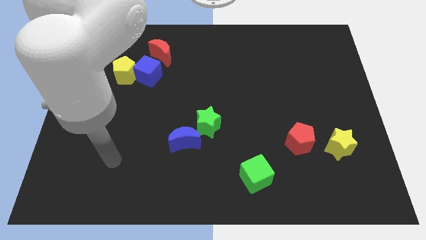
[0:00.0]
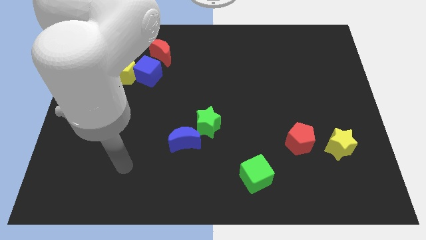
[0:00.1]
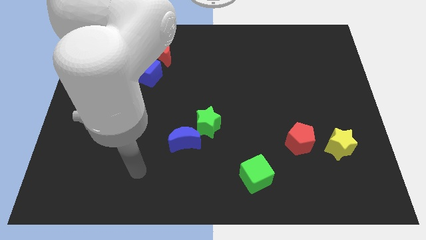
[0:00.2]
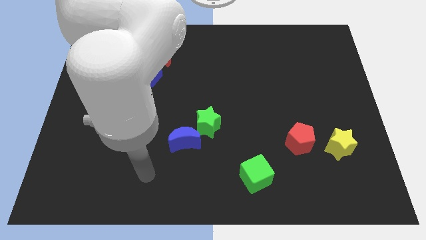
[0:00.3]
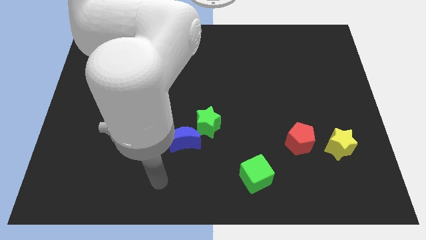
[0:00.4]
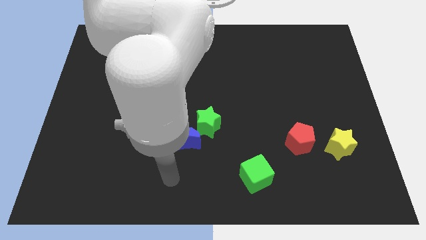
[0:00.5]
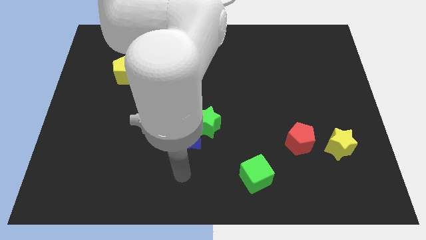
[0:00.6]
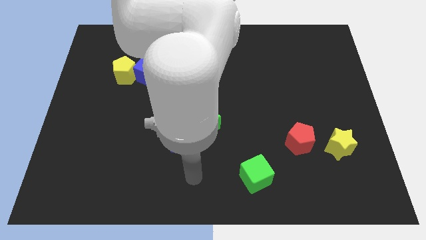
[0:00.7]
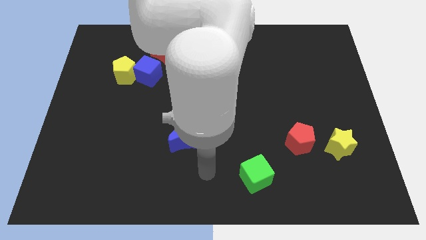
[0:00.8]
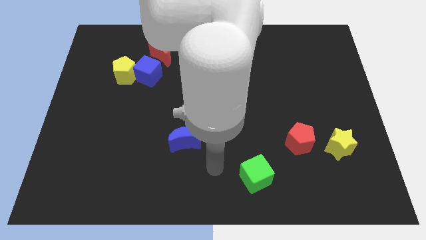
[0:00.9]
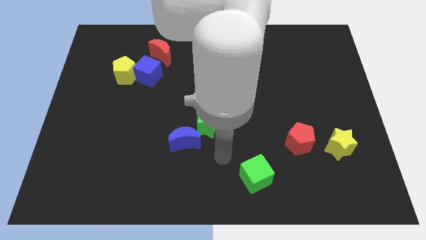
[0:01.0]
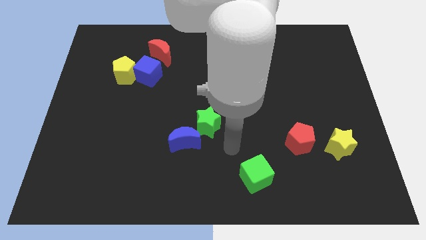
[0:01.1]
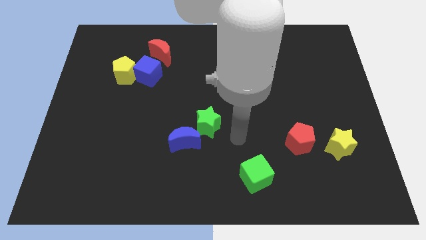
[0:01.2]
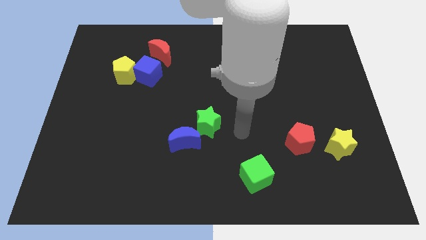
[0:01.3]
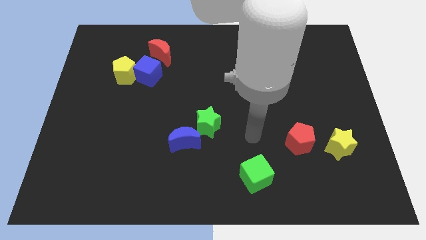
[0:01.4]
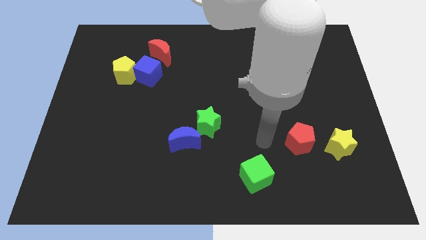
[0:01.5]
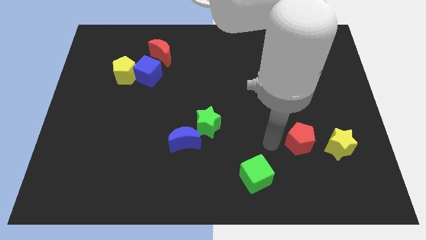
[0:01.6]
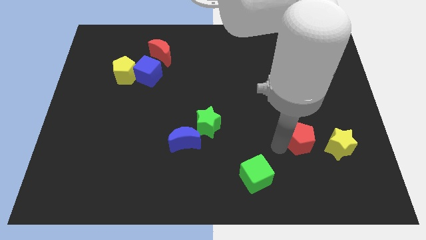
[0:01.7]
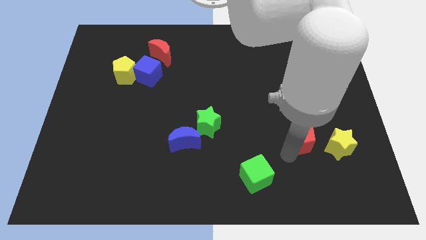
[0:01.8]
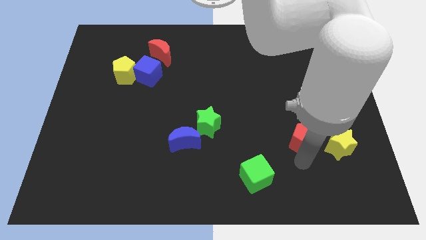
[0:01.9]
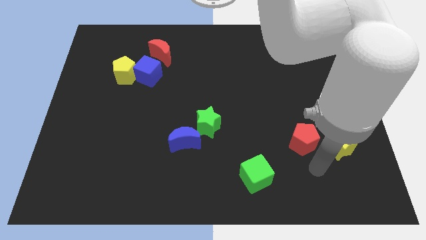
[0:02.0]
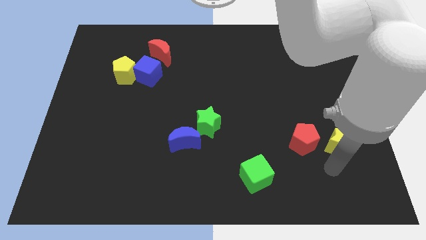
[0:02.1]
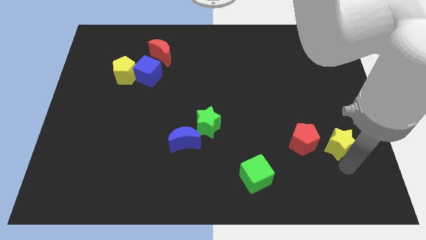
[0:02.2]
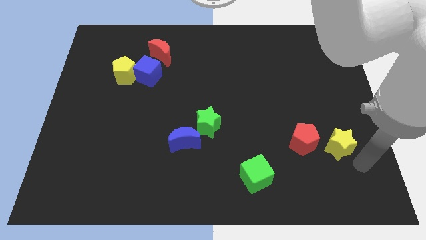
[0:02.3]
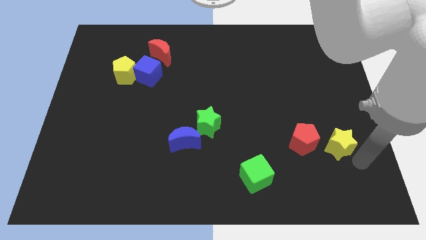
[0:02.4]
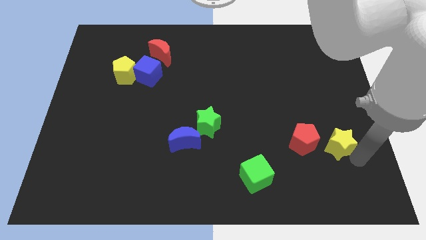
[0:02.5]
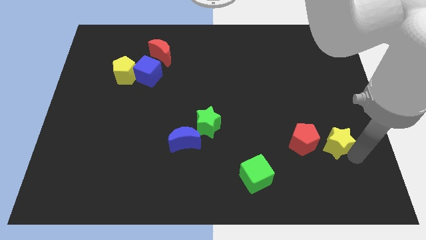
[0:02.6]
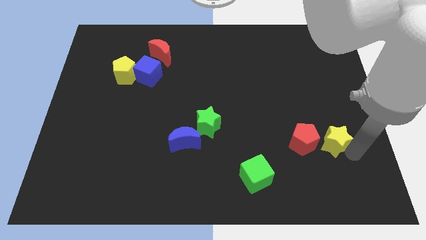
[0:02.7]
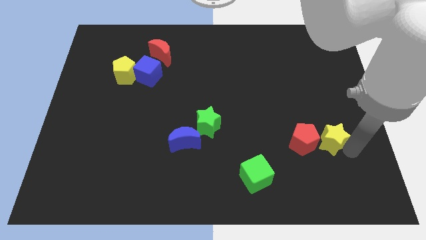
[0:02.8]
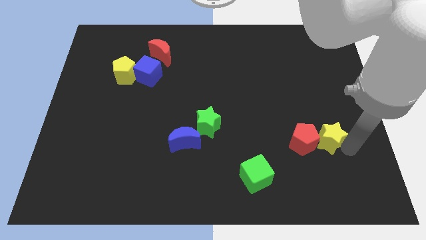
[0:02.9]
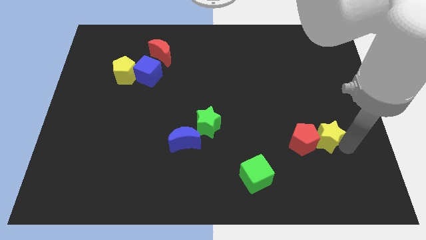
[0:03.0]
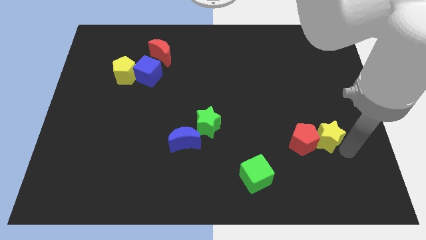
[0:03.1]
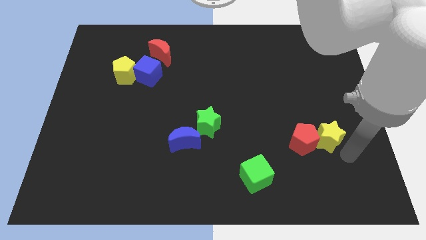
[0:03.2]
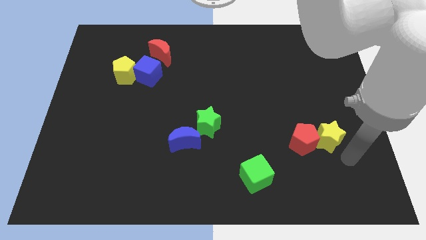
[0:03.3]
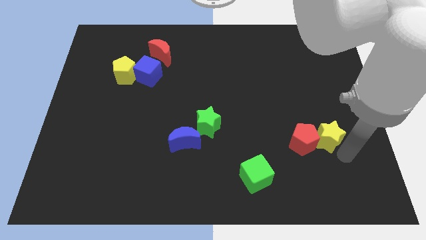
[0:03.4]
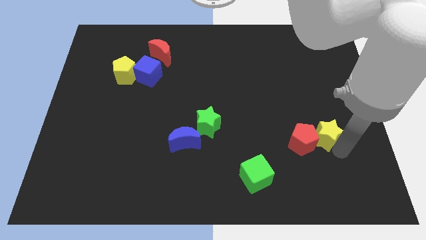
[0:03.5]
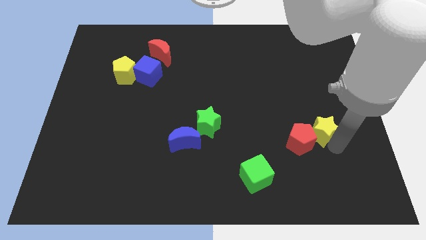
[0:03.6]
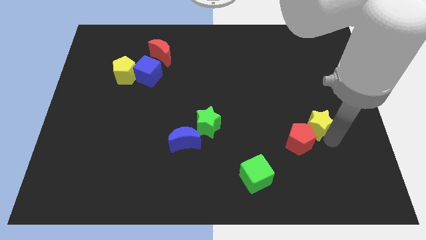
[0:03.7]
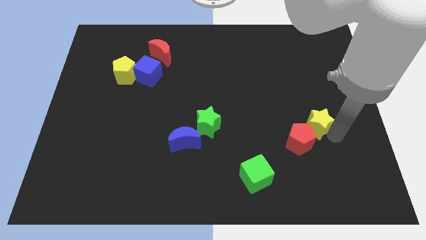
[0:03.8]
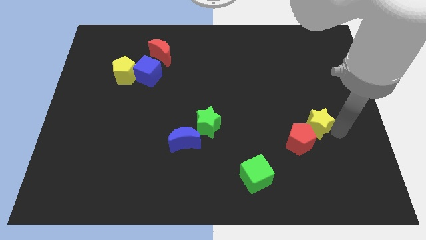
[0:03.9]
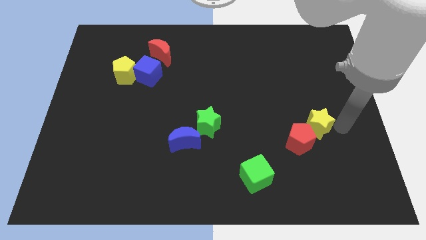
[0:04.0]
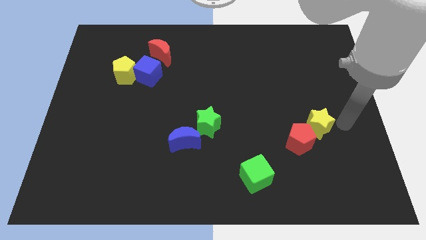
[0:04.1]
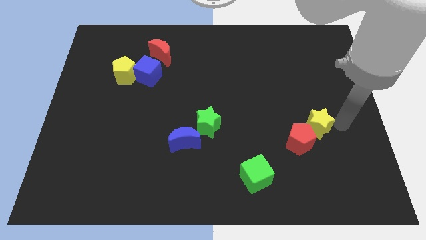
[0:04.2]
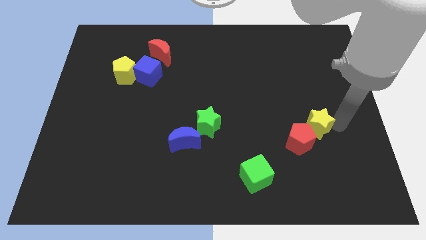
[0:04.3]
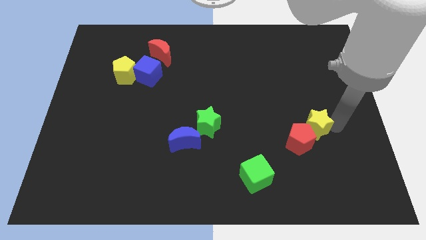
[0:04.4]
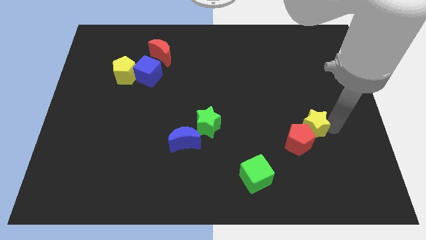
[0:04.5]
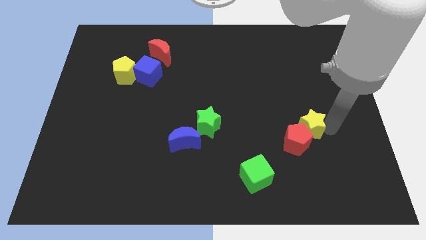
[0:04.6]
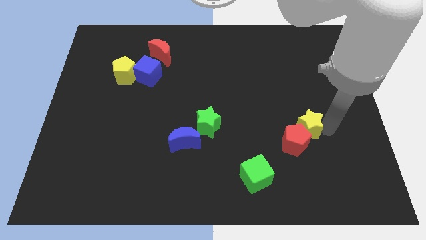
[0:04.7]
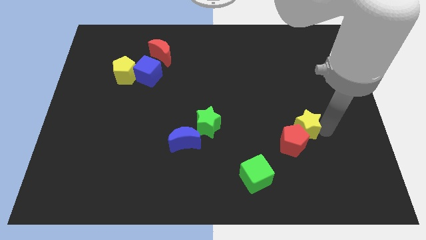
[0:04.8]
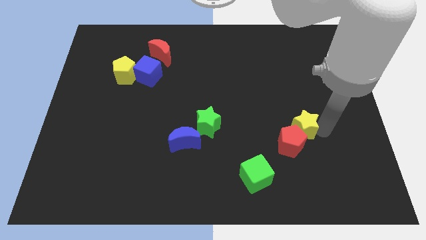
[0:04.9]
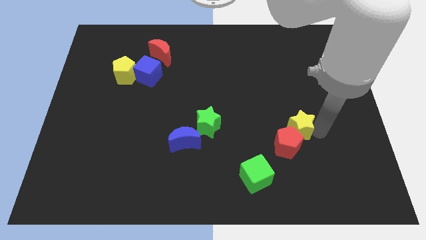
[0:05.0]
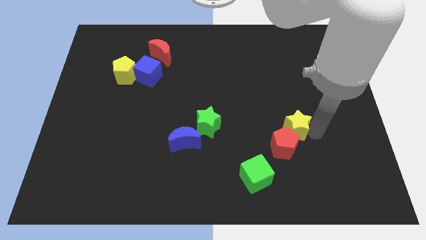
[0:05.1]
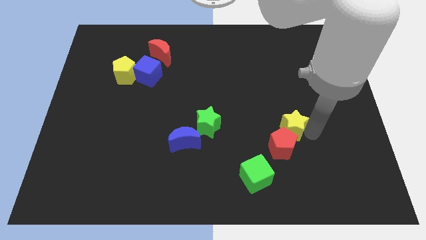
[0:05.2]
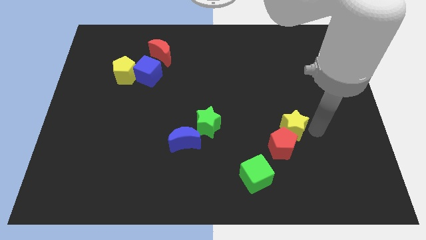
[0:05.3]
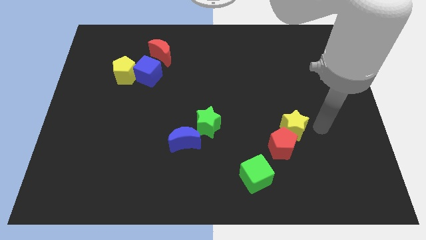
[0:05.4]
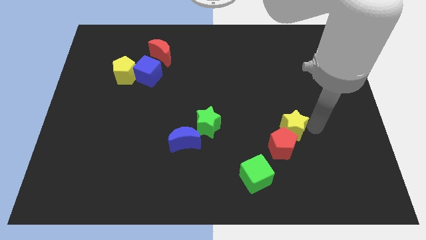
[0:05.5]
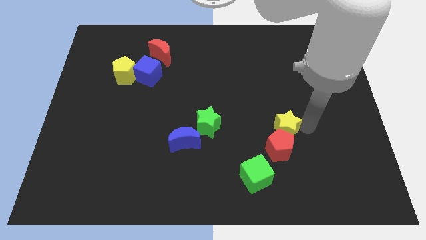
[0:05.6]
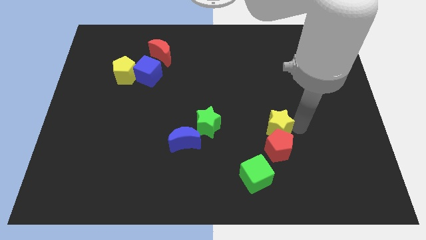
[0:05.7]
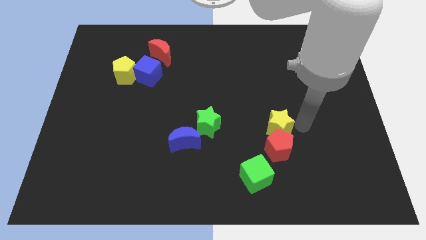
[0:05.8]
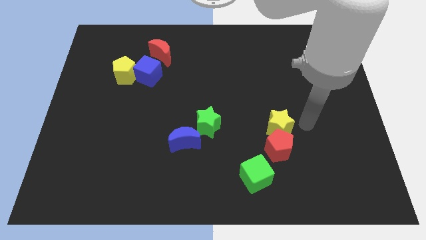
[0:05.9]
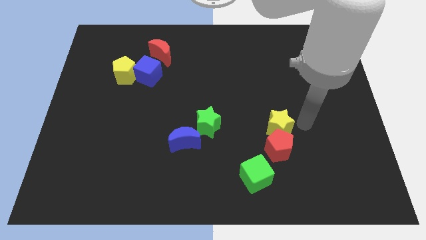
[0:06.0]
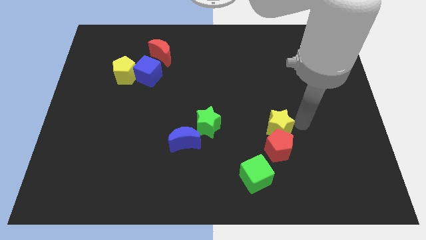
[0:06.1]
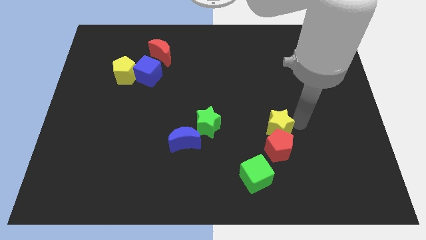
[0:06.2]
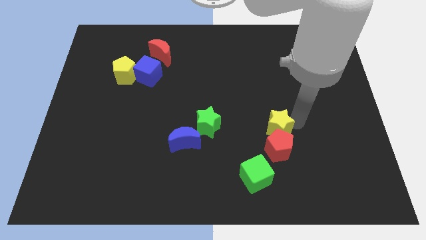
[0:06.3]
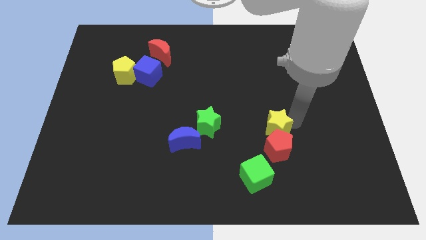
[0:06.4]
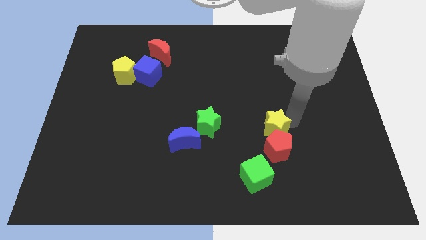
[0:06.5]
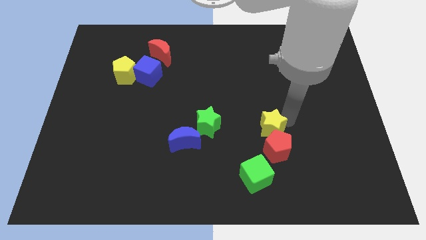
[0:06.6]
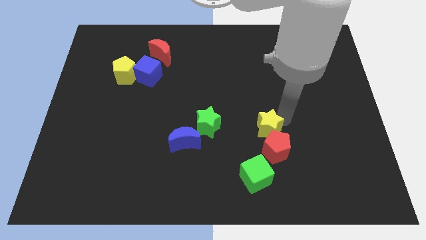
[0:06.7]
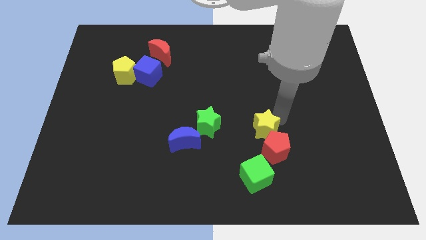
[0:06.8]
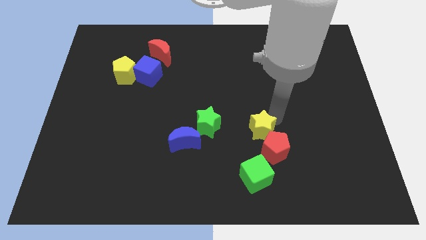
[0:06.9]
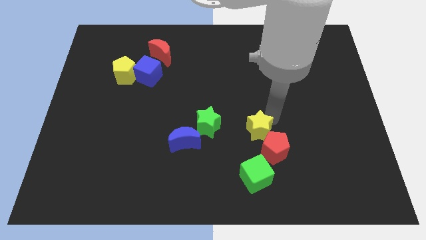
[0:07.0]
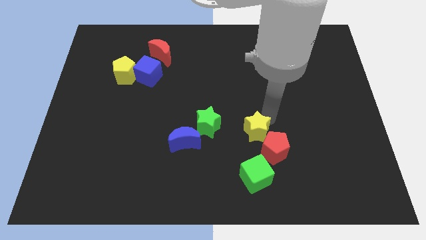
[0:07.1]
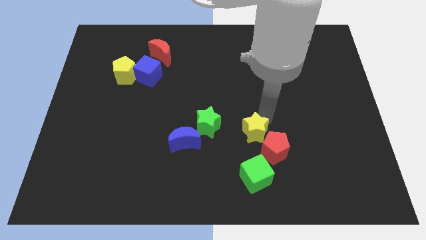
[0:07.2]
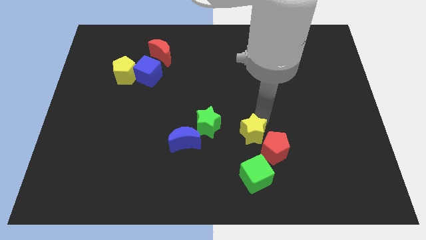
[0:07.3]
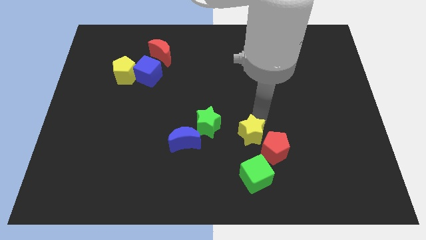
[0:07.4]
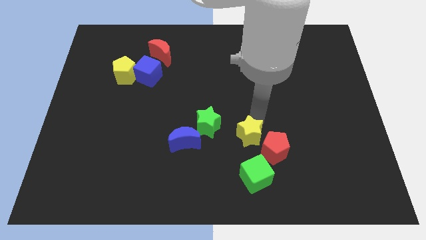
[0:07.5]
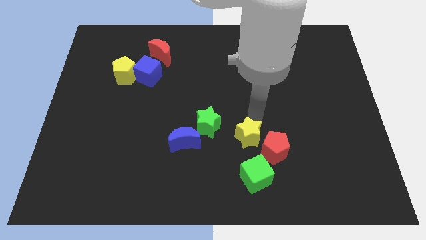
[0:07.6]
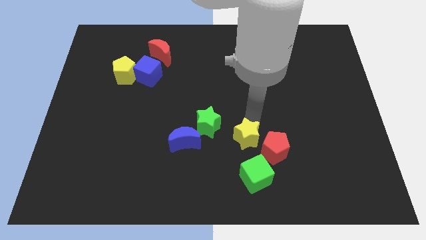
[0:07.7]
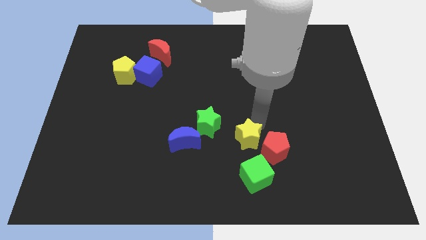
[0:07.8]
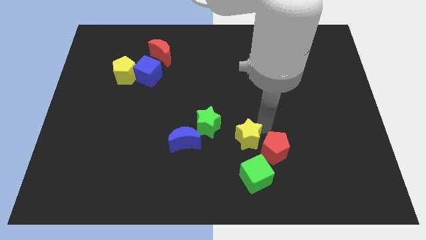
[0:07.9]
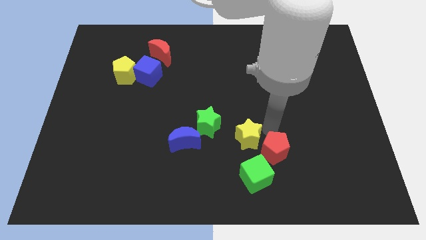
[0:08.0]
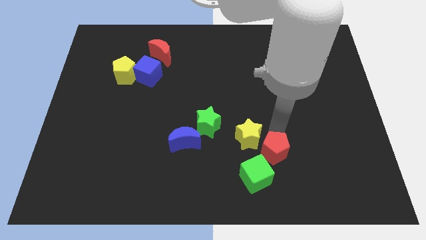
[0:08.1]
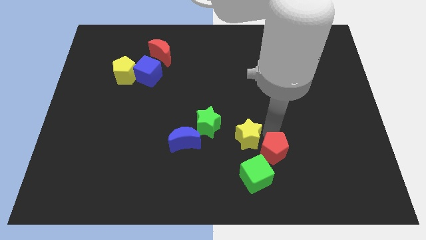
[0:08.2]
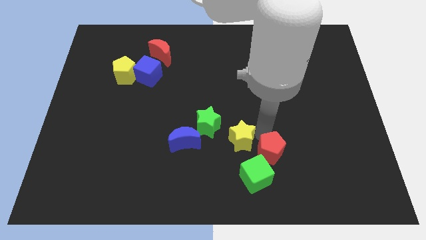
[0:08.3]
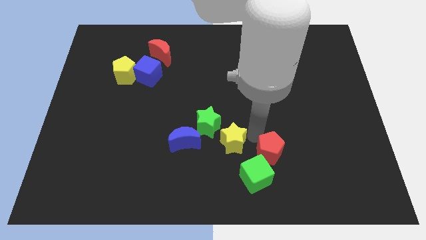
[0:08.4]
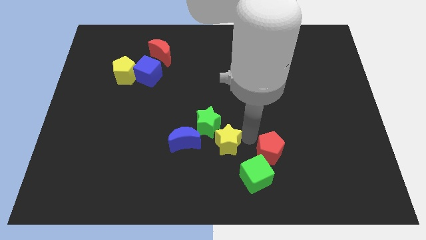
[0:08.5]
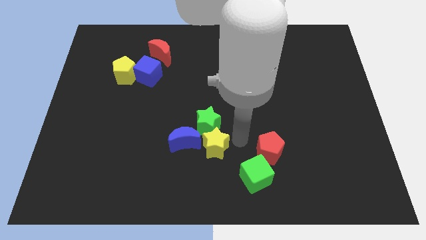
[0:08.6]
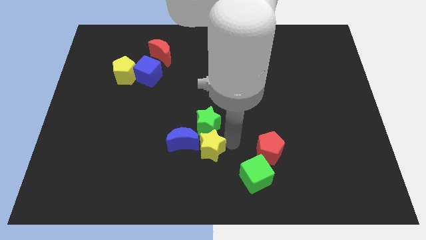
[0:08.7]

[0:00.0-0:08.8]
put the yellow star close to the blue moon
